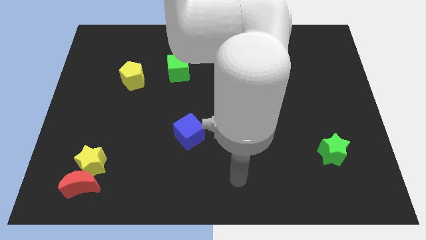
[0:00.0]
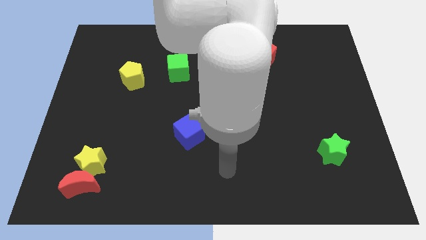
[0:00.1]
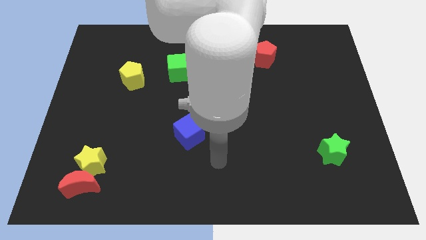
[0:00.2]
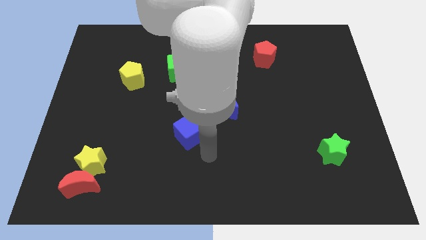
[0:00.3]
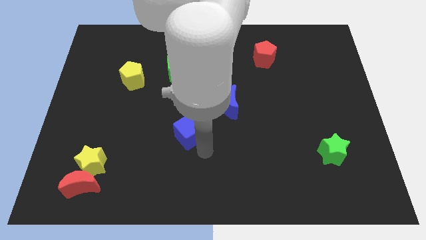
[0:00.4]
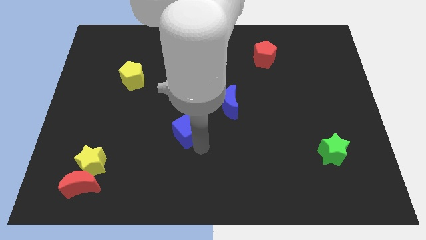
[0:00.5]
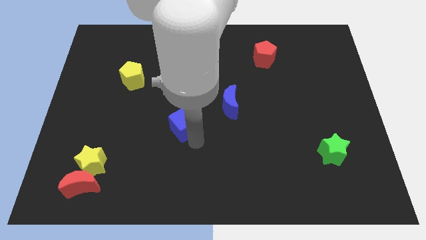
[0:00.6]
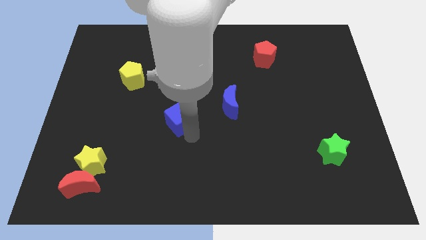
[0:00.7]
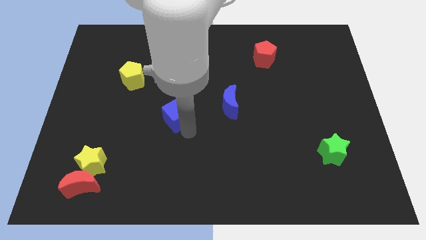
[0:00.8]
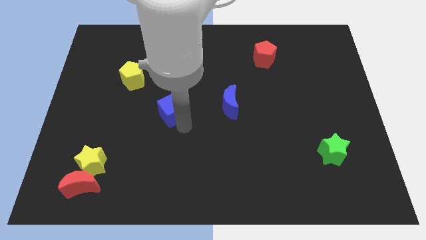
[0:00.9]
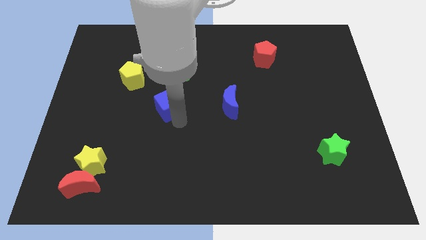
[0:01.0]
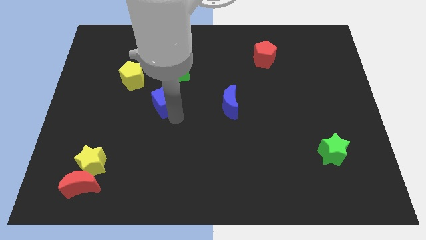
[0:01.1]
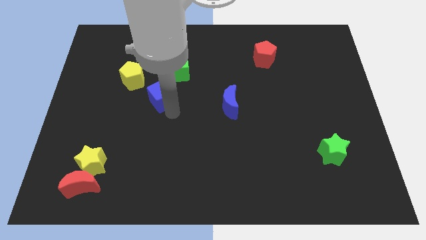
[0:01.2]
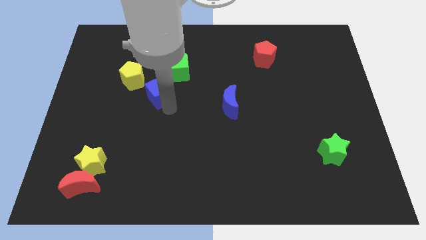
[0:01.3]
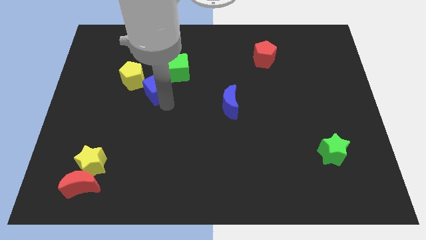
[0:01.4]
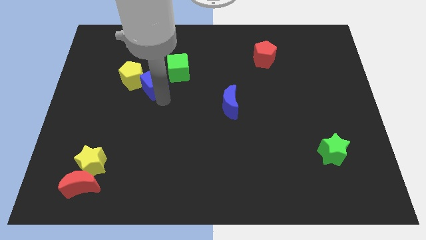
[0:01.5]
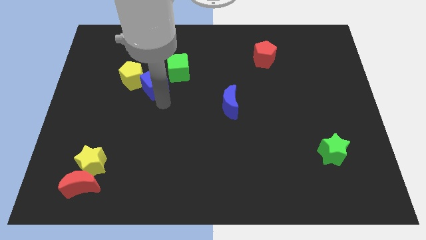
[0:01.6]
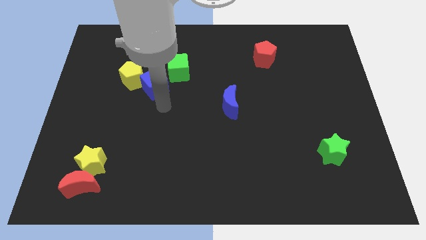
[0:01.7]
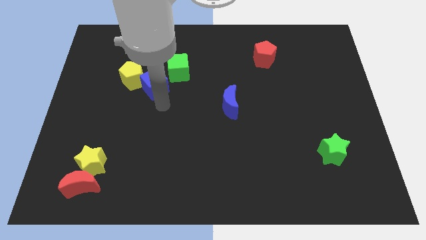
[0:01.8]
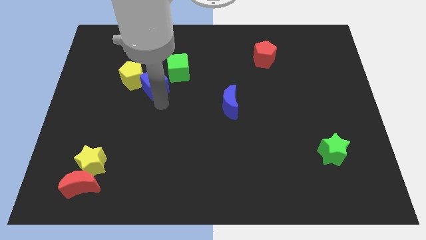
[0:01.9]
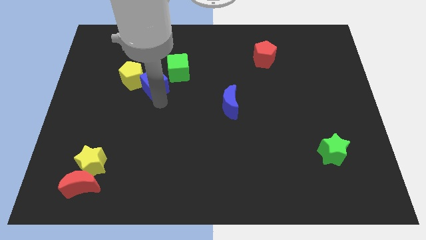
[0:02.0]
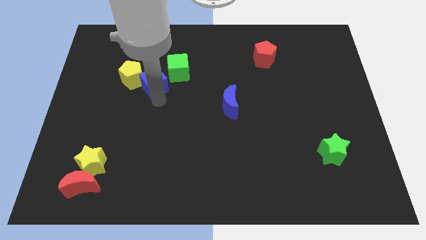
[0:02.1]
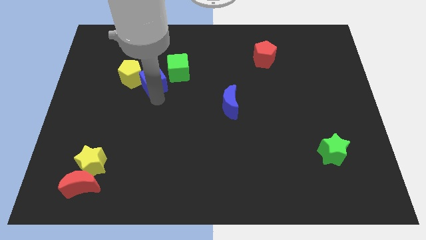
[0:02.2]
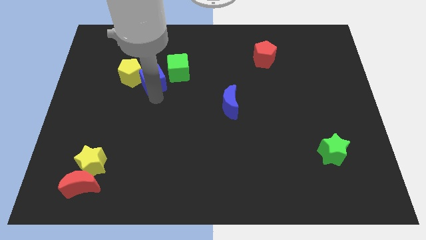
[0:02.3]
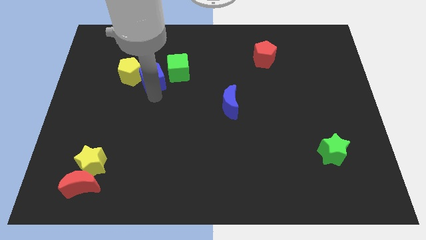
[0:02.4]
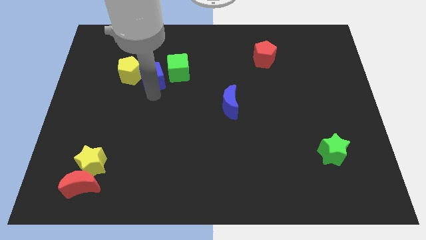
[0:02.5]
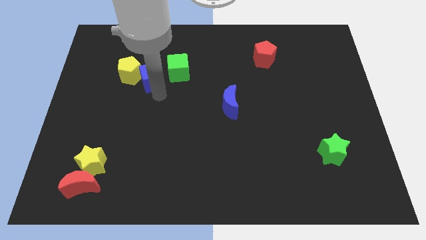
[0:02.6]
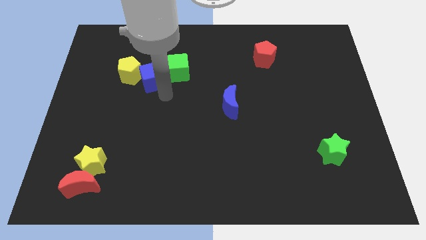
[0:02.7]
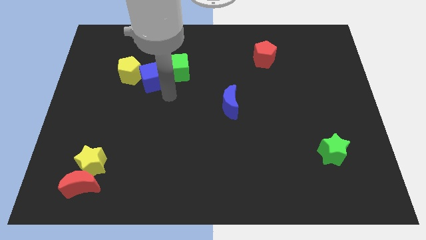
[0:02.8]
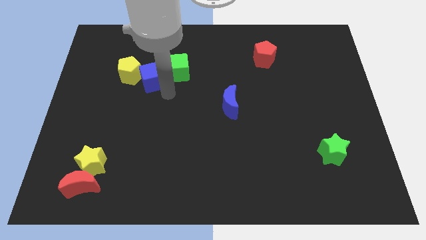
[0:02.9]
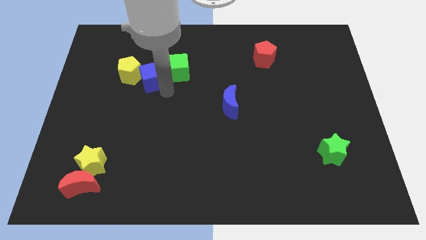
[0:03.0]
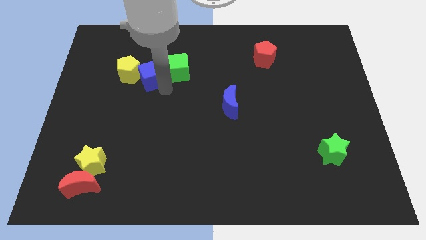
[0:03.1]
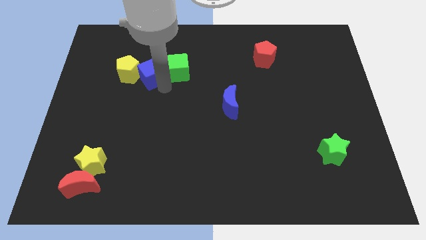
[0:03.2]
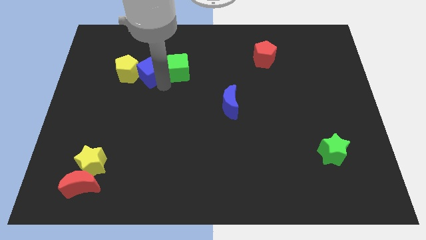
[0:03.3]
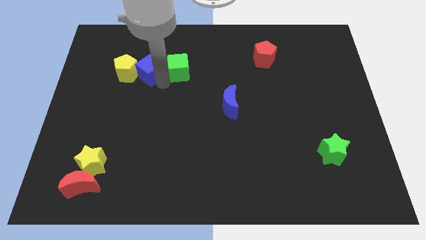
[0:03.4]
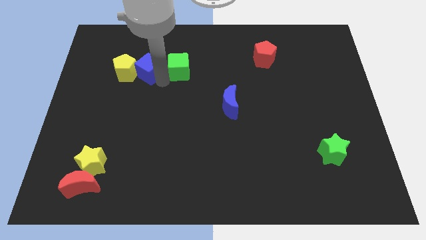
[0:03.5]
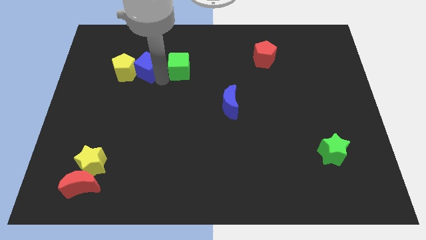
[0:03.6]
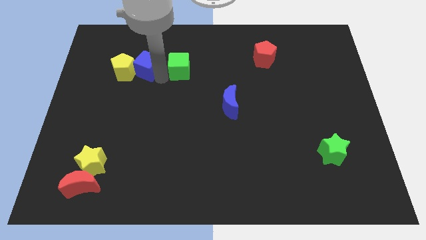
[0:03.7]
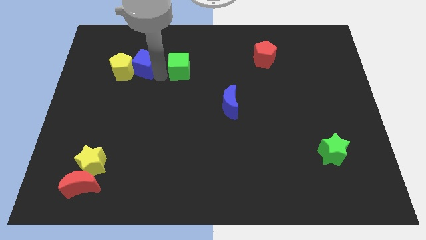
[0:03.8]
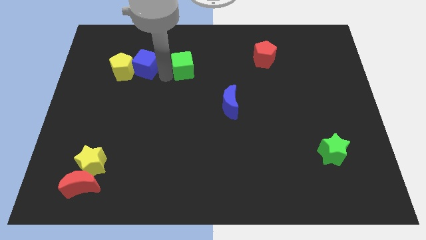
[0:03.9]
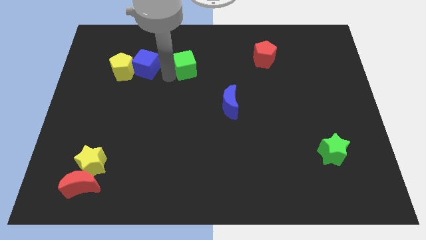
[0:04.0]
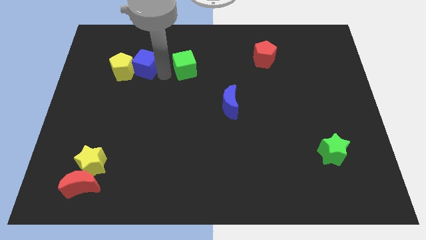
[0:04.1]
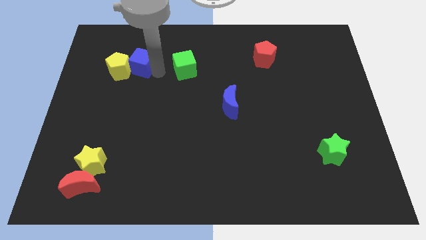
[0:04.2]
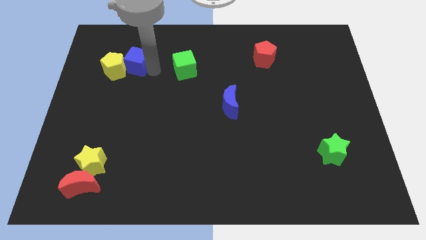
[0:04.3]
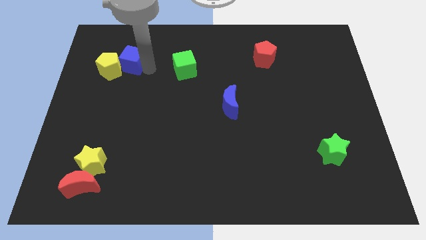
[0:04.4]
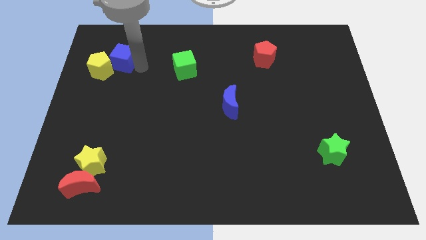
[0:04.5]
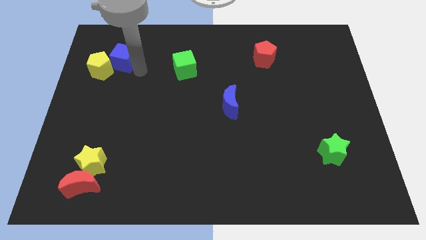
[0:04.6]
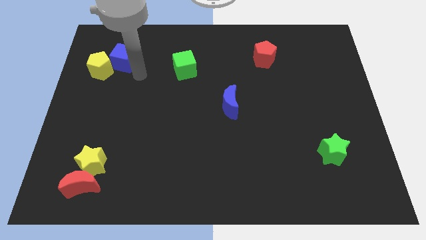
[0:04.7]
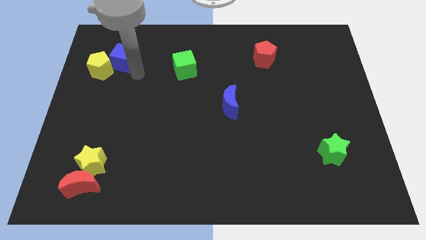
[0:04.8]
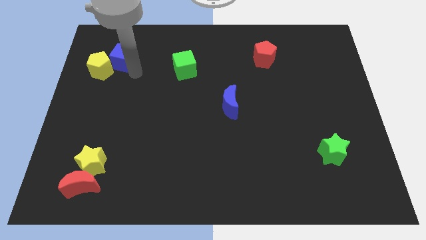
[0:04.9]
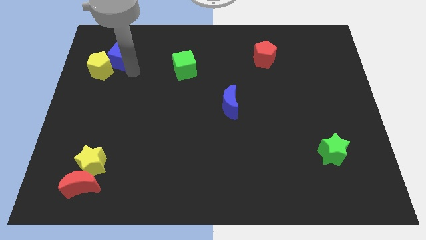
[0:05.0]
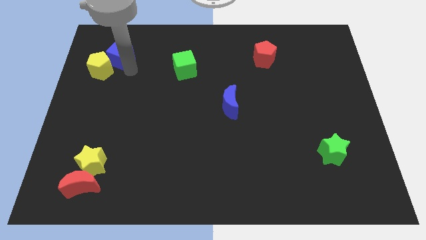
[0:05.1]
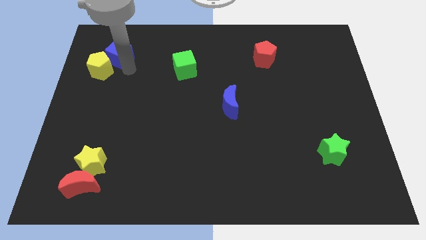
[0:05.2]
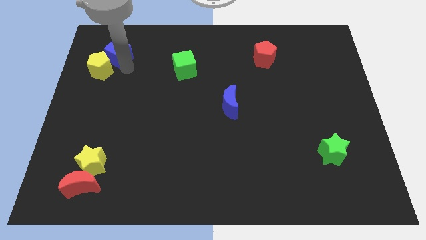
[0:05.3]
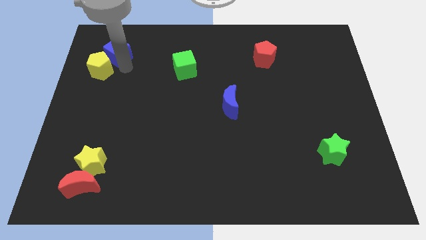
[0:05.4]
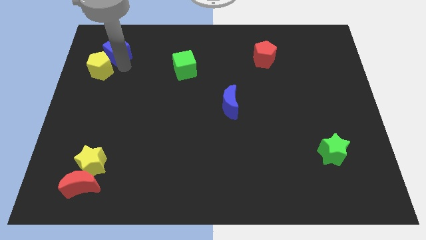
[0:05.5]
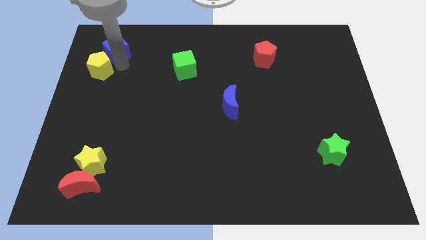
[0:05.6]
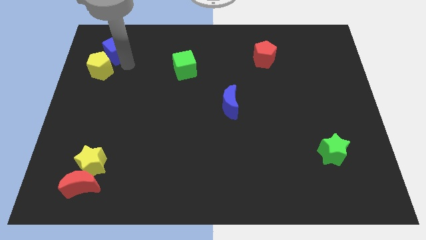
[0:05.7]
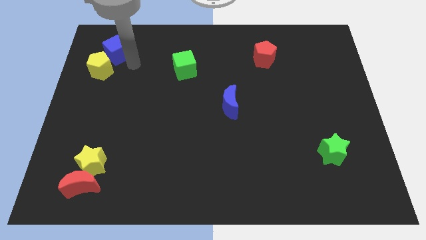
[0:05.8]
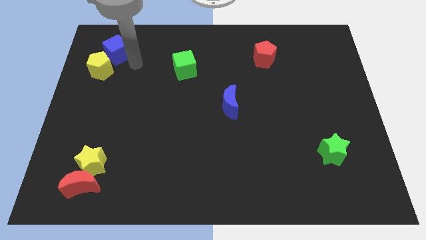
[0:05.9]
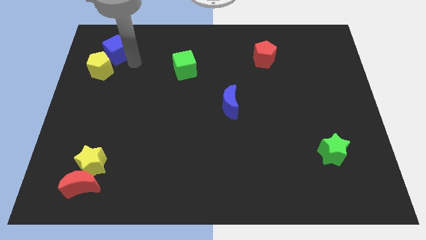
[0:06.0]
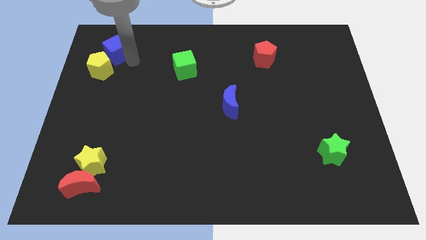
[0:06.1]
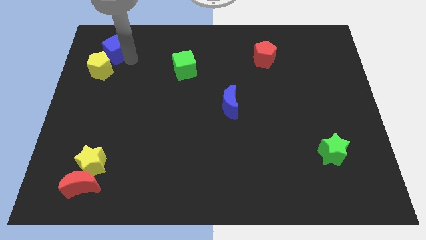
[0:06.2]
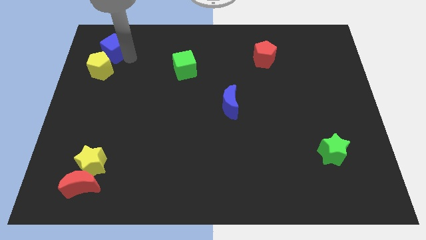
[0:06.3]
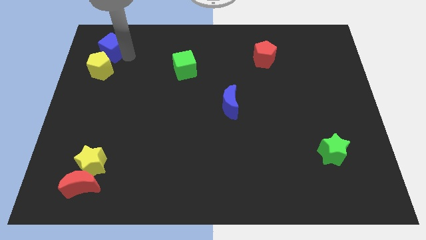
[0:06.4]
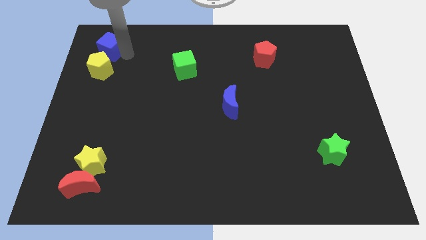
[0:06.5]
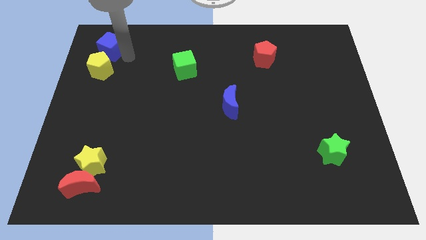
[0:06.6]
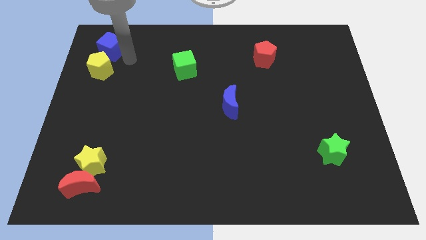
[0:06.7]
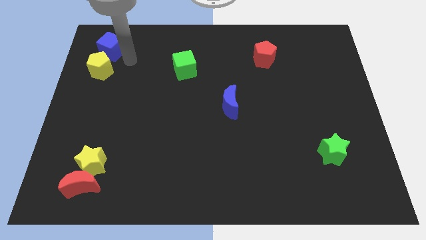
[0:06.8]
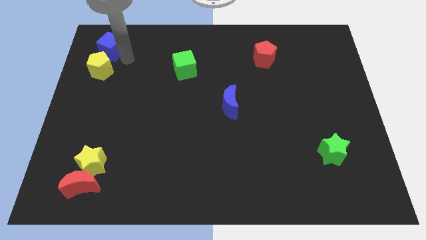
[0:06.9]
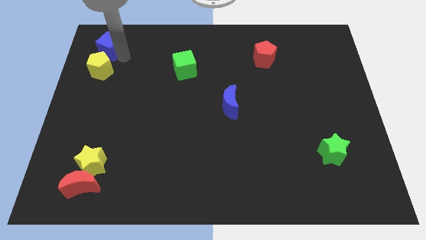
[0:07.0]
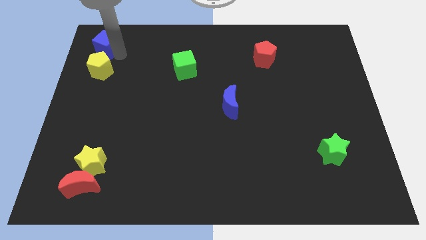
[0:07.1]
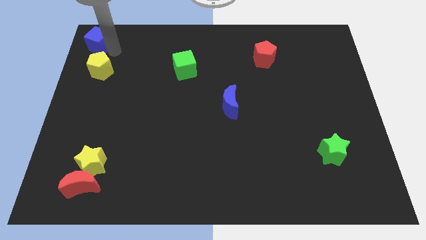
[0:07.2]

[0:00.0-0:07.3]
put the blue cube to the top left

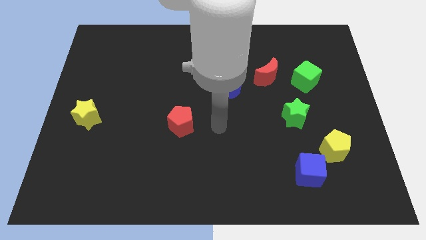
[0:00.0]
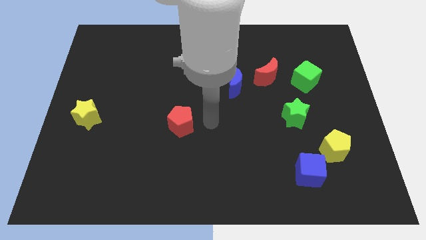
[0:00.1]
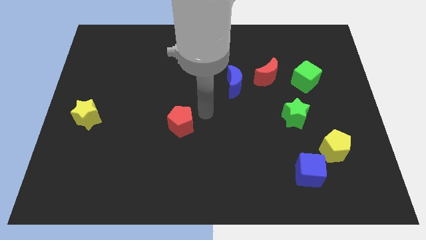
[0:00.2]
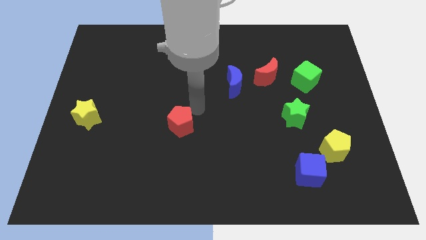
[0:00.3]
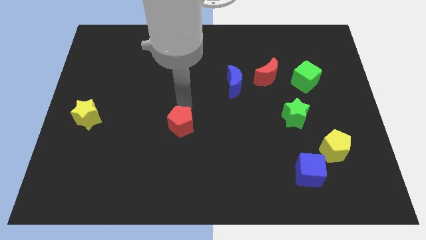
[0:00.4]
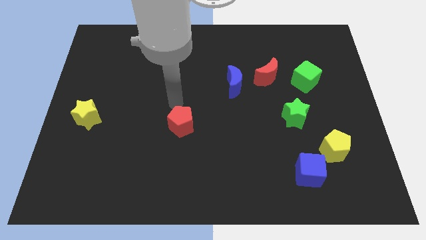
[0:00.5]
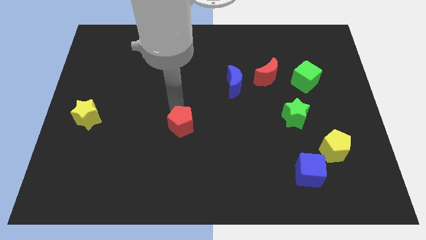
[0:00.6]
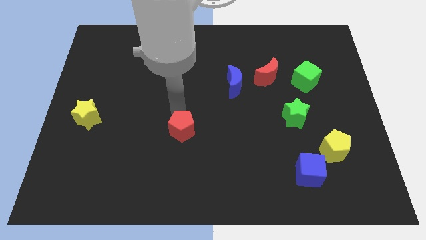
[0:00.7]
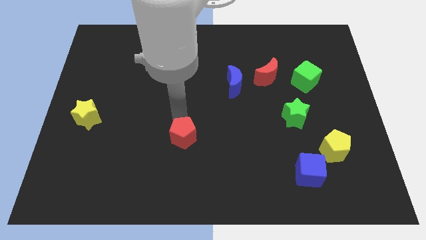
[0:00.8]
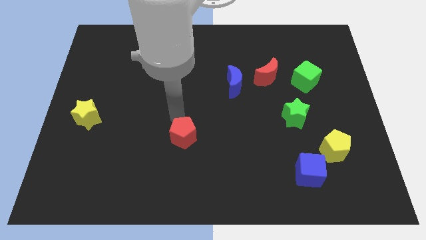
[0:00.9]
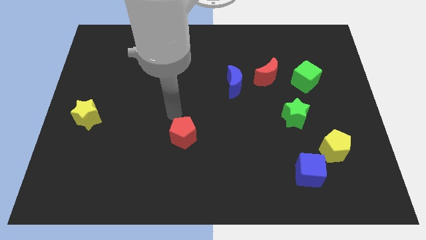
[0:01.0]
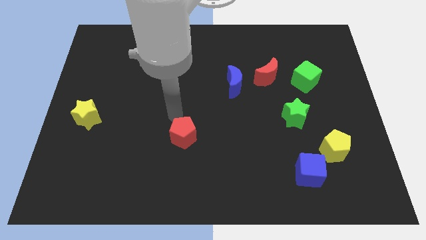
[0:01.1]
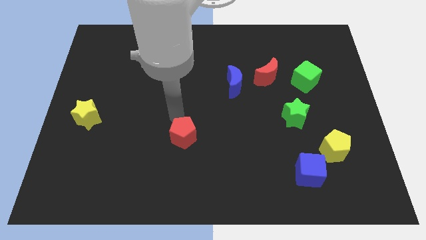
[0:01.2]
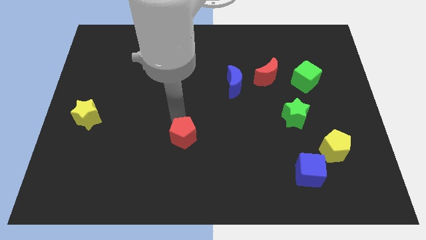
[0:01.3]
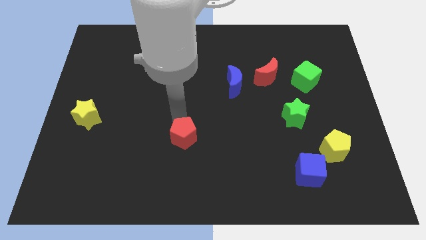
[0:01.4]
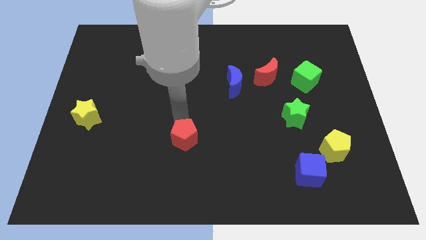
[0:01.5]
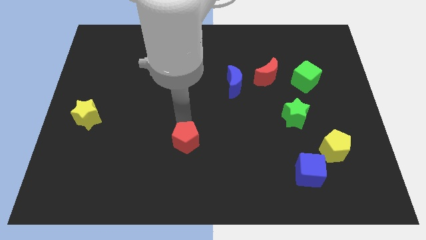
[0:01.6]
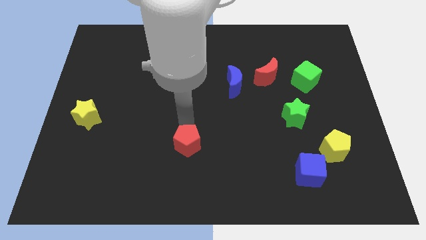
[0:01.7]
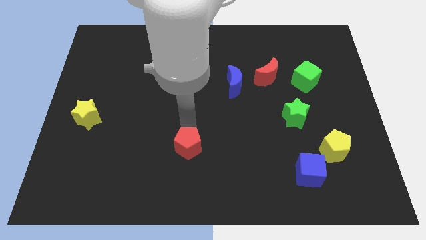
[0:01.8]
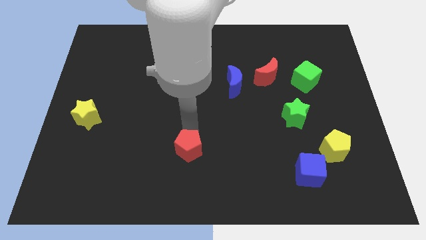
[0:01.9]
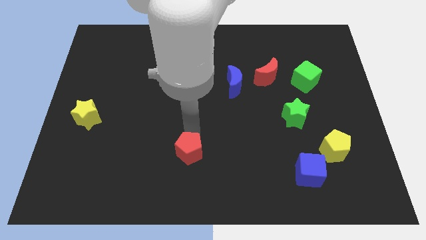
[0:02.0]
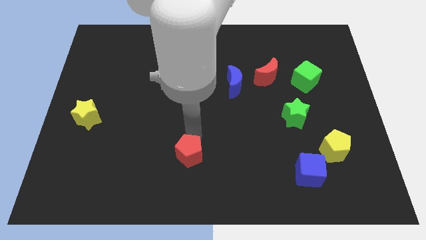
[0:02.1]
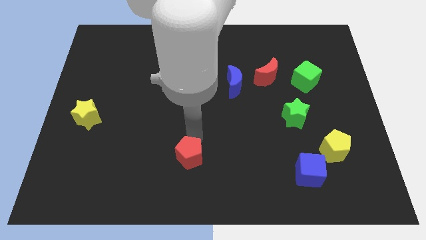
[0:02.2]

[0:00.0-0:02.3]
push the red pentagon to the bottom side
